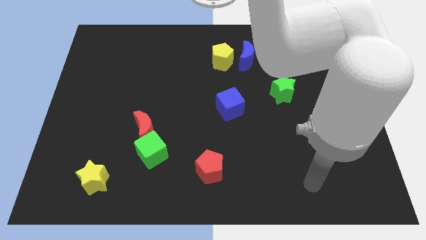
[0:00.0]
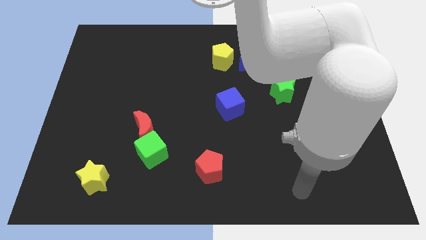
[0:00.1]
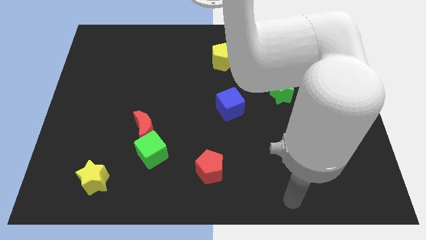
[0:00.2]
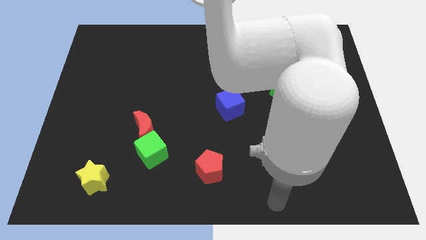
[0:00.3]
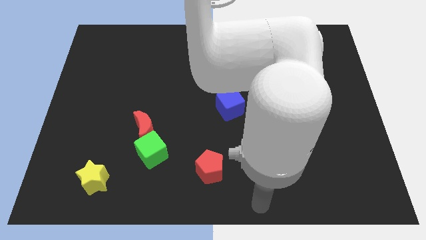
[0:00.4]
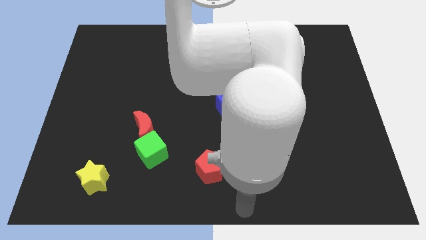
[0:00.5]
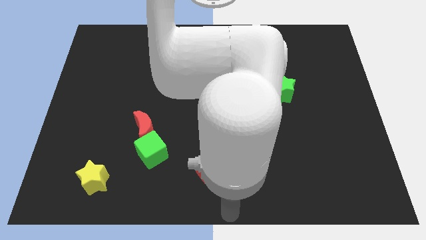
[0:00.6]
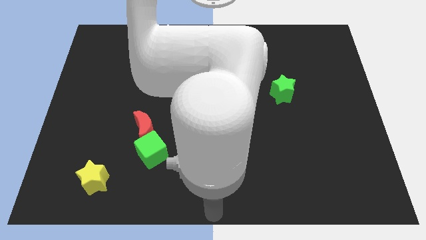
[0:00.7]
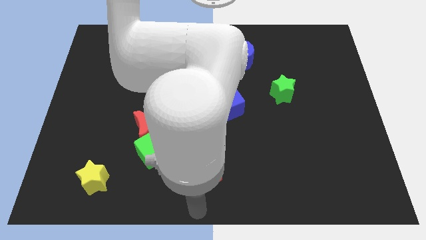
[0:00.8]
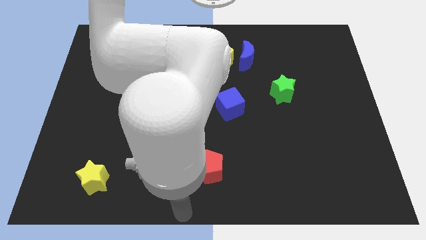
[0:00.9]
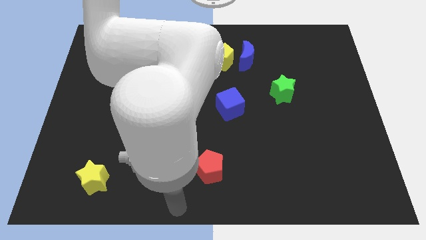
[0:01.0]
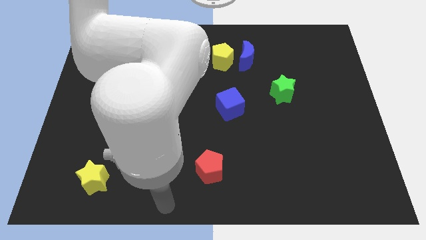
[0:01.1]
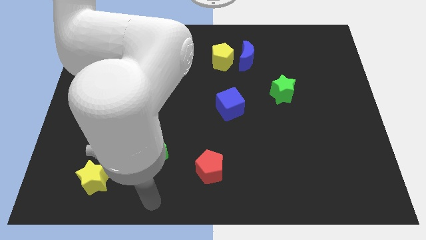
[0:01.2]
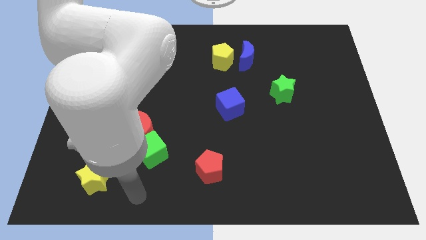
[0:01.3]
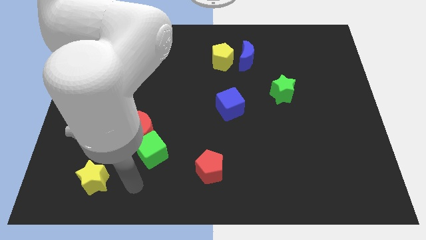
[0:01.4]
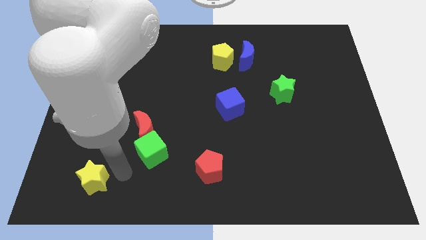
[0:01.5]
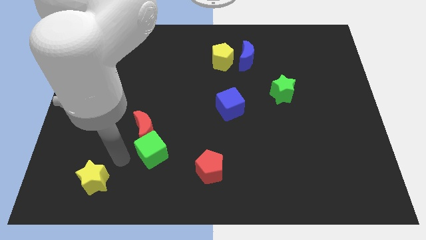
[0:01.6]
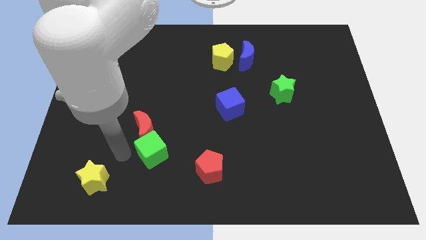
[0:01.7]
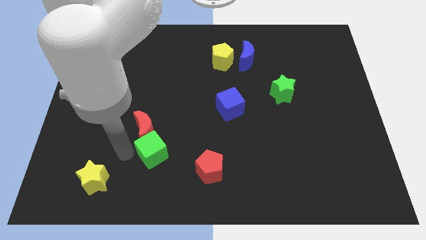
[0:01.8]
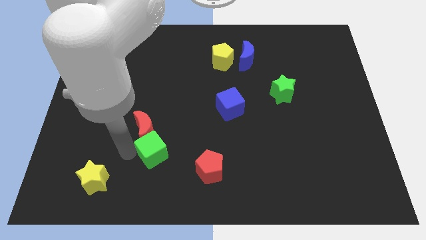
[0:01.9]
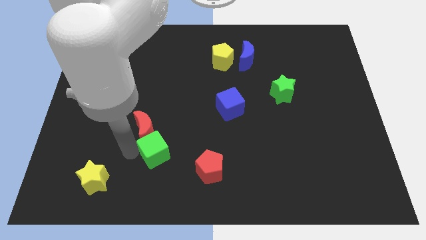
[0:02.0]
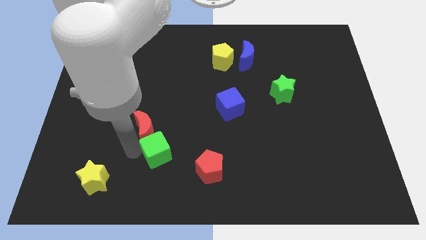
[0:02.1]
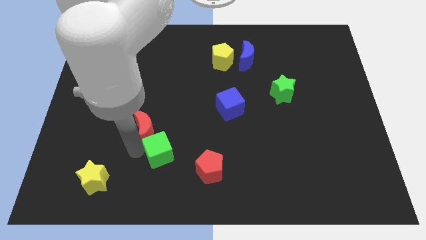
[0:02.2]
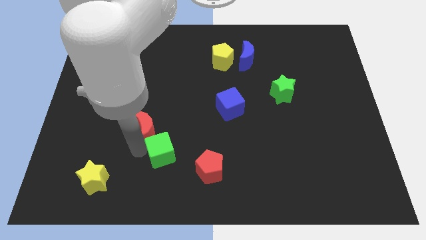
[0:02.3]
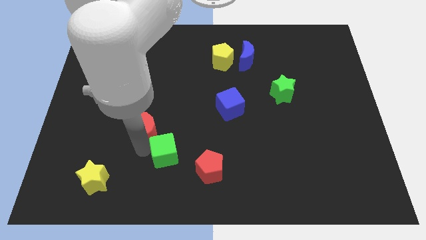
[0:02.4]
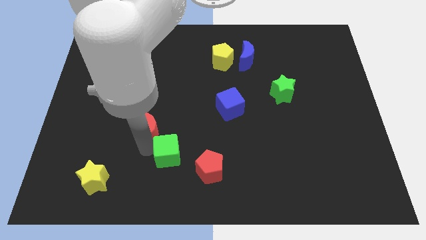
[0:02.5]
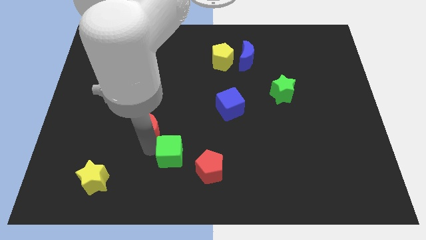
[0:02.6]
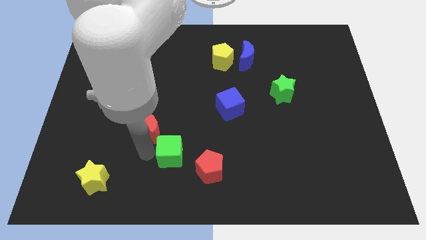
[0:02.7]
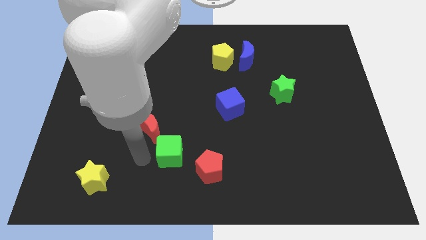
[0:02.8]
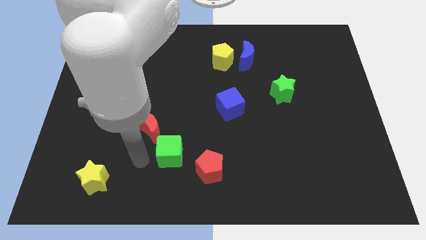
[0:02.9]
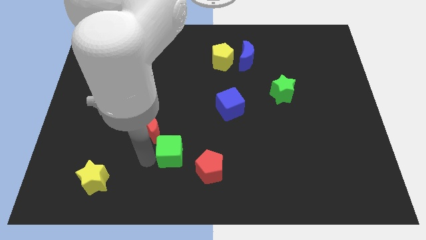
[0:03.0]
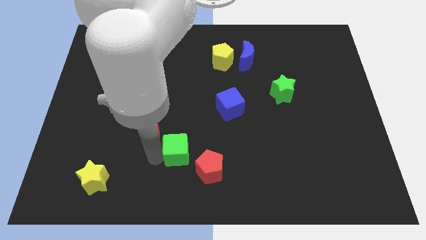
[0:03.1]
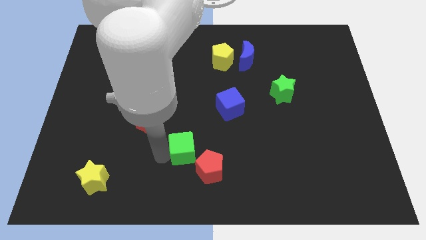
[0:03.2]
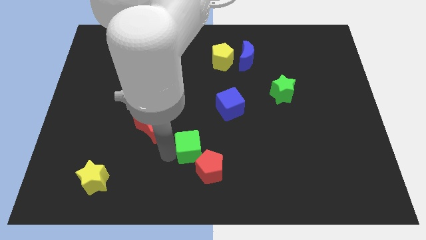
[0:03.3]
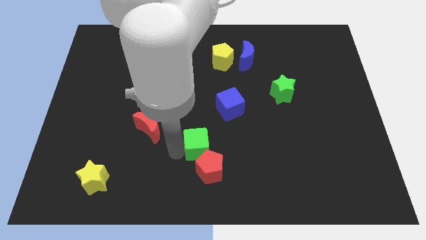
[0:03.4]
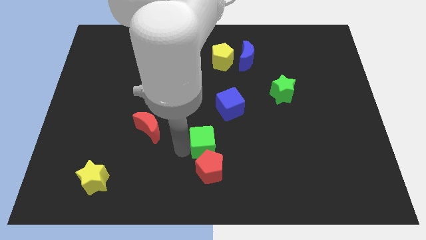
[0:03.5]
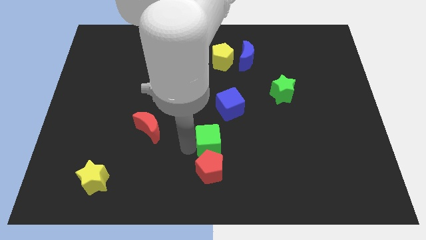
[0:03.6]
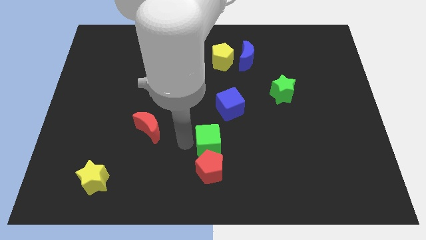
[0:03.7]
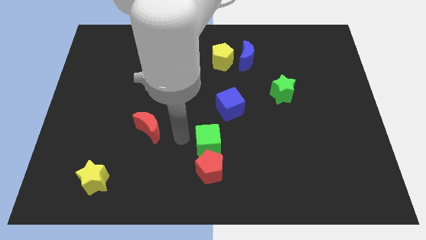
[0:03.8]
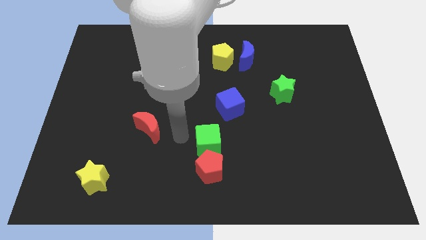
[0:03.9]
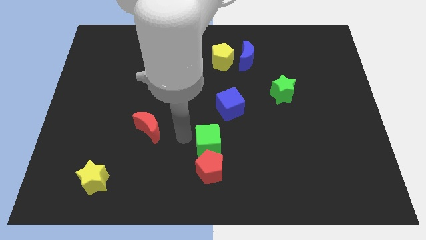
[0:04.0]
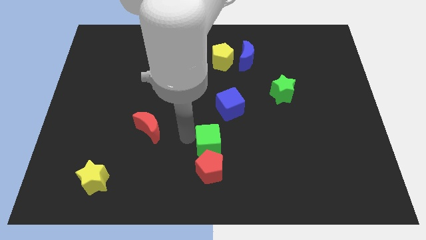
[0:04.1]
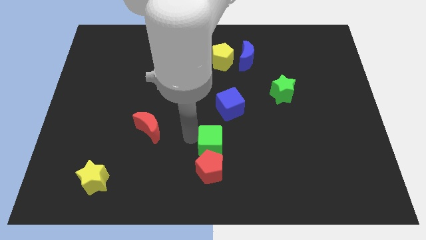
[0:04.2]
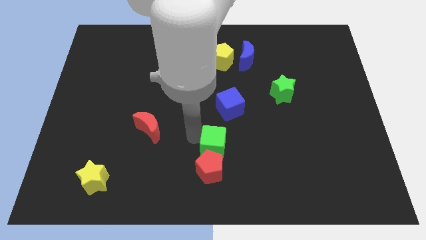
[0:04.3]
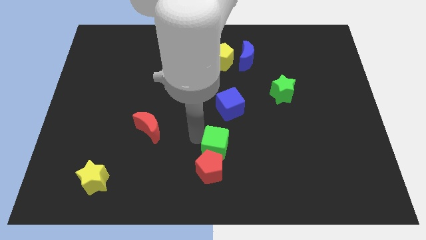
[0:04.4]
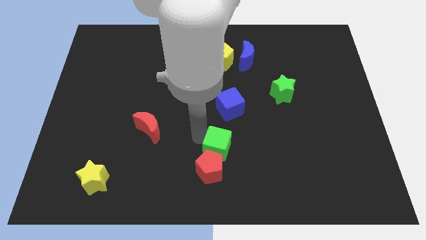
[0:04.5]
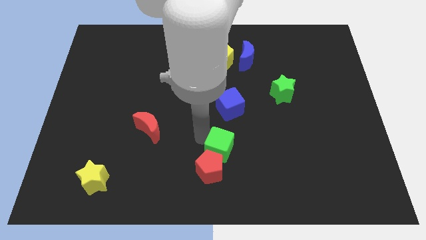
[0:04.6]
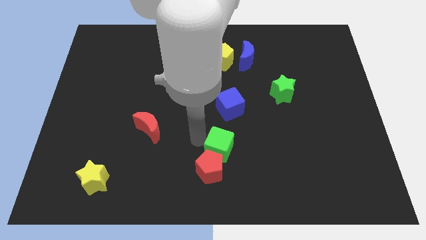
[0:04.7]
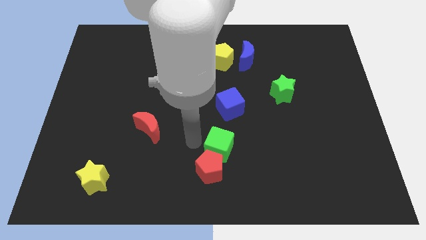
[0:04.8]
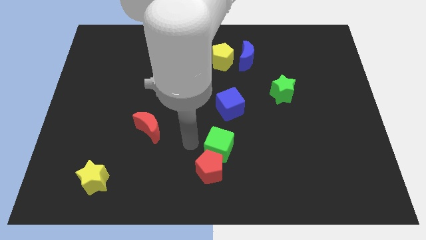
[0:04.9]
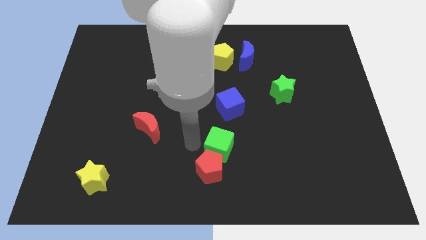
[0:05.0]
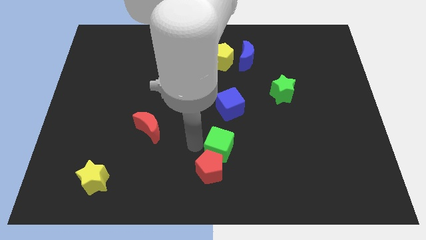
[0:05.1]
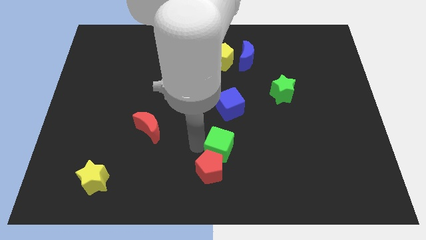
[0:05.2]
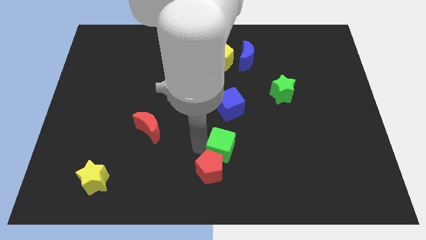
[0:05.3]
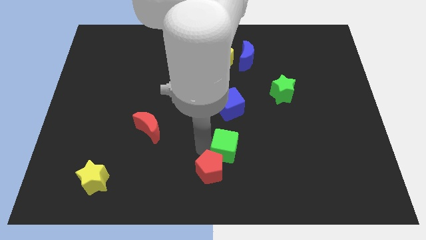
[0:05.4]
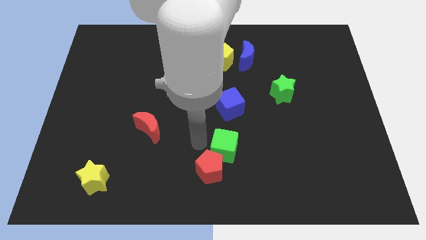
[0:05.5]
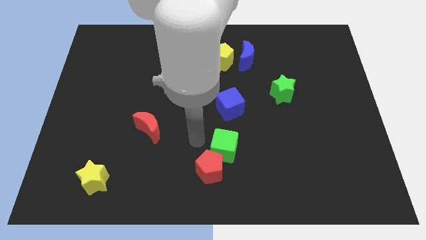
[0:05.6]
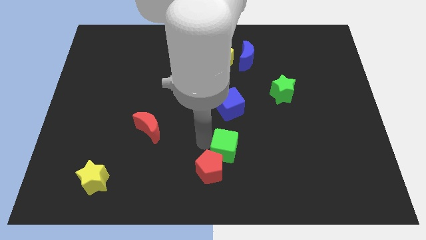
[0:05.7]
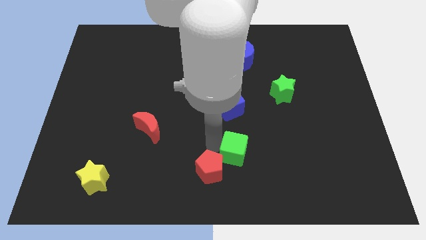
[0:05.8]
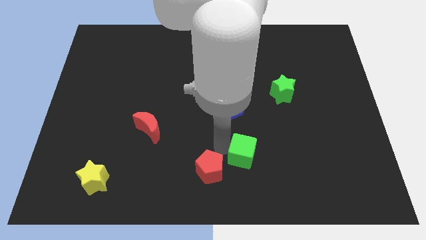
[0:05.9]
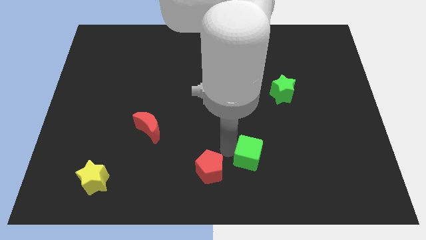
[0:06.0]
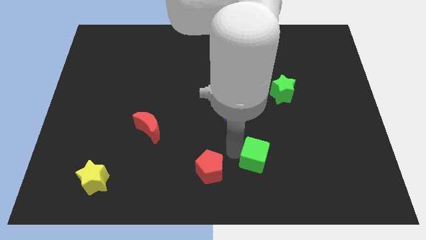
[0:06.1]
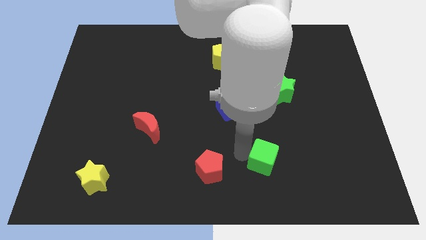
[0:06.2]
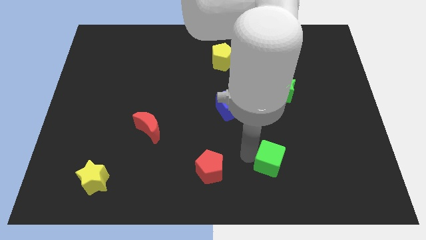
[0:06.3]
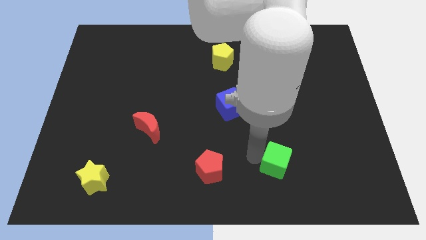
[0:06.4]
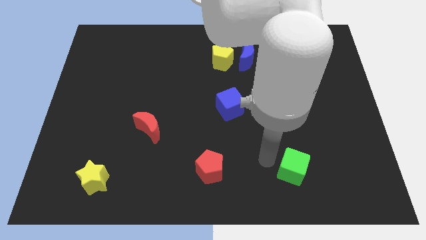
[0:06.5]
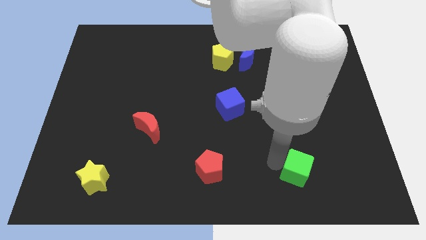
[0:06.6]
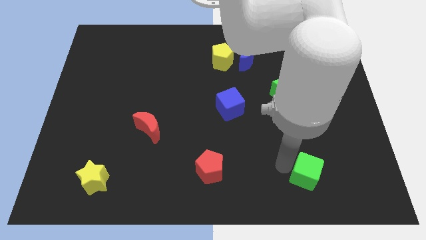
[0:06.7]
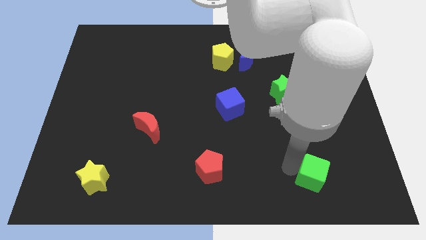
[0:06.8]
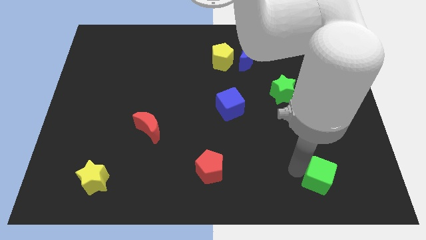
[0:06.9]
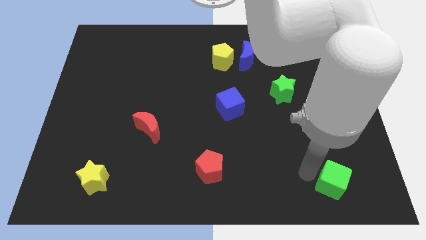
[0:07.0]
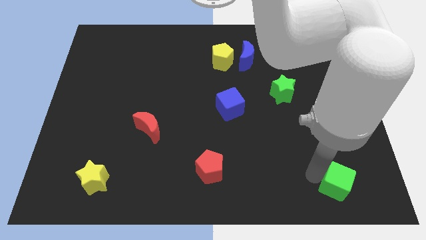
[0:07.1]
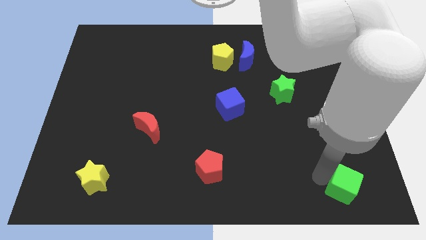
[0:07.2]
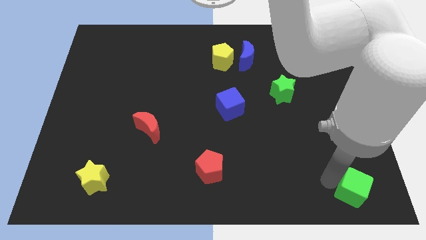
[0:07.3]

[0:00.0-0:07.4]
move the green cube to the bottom right of the board
